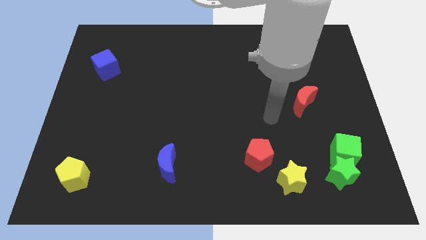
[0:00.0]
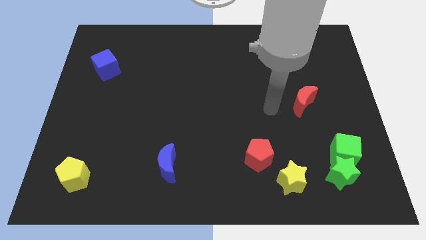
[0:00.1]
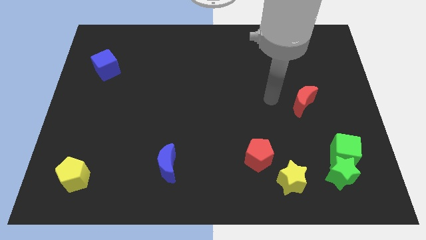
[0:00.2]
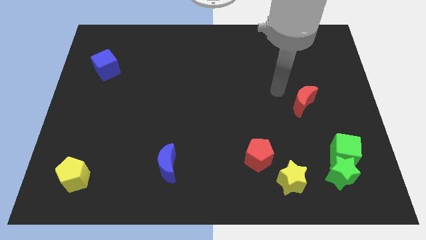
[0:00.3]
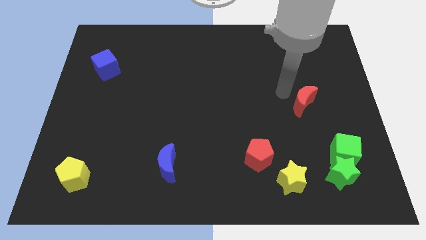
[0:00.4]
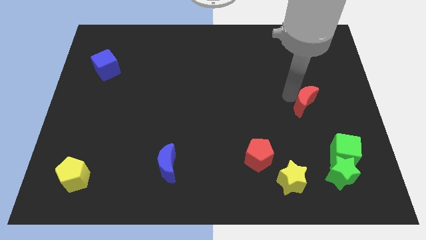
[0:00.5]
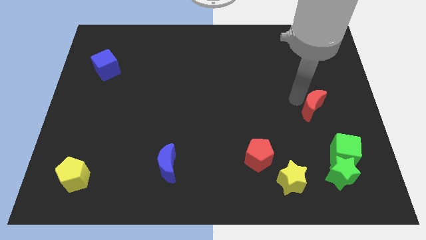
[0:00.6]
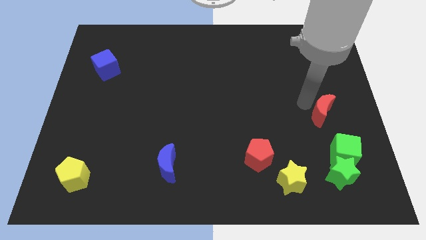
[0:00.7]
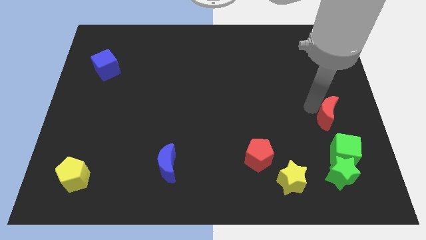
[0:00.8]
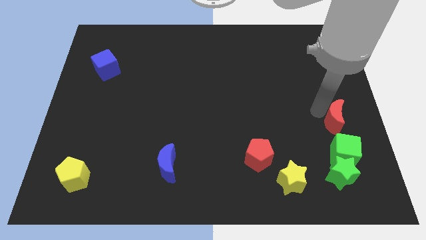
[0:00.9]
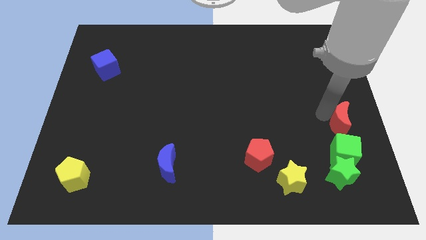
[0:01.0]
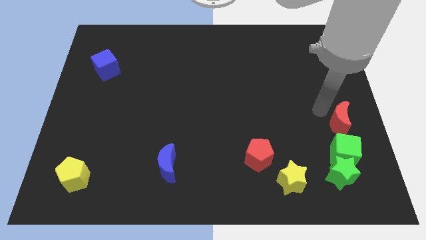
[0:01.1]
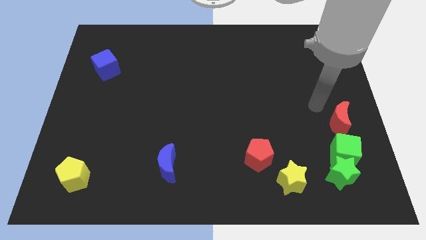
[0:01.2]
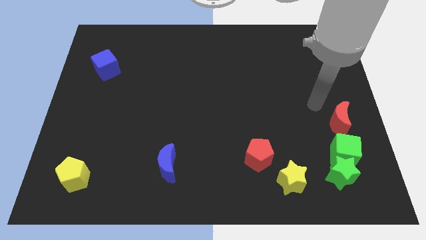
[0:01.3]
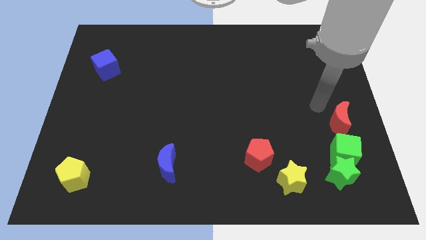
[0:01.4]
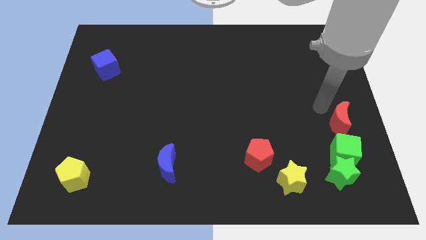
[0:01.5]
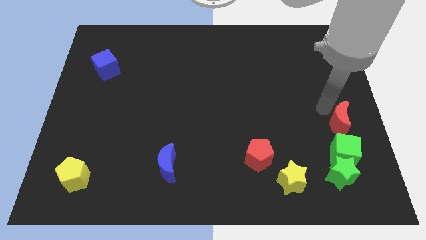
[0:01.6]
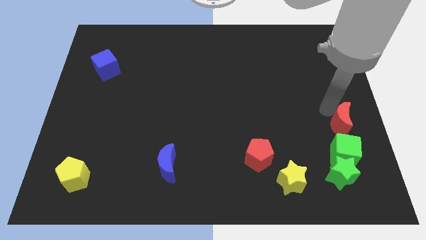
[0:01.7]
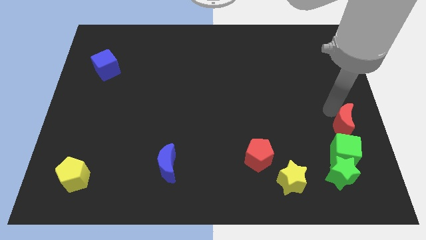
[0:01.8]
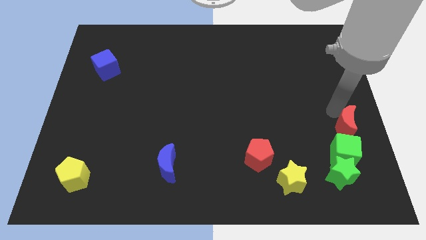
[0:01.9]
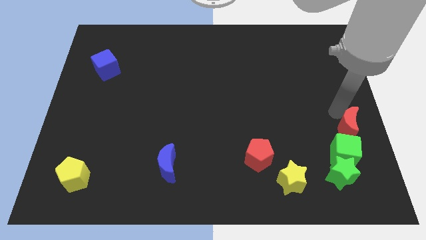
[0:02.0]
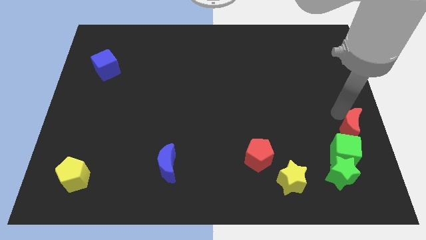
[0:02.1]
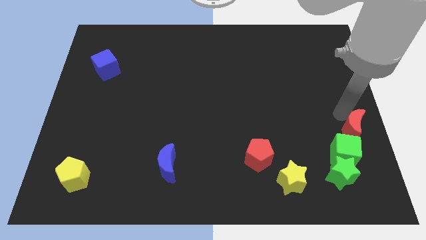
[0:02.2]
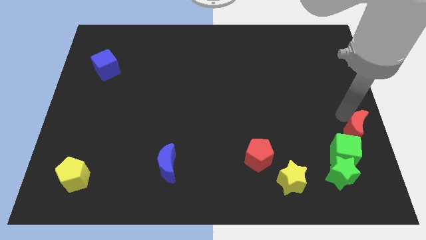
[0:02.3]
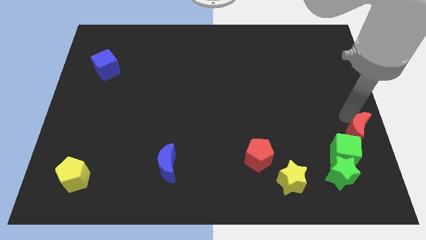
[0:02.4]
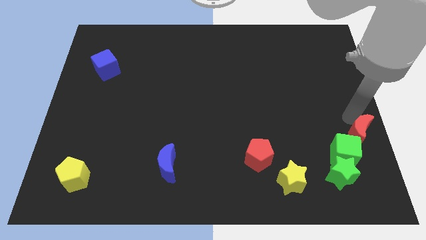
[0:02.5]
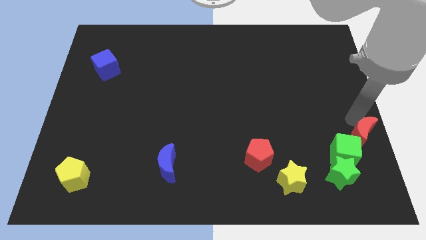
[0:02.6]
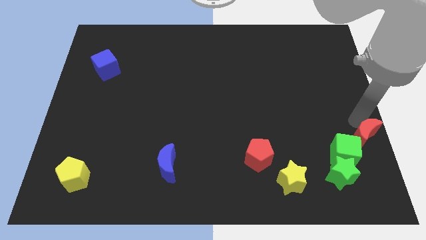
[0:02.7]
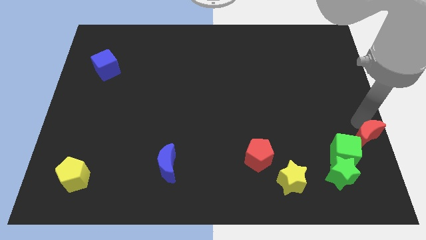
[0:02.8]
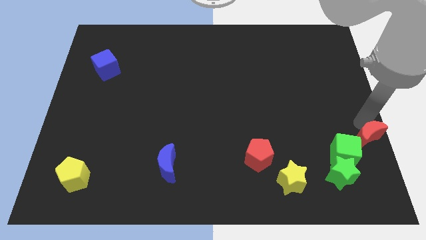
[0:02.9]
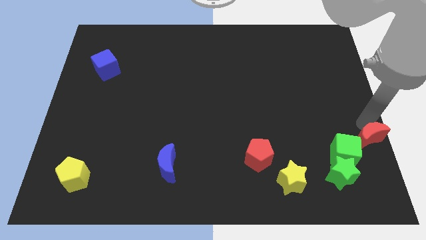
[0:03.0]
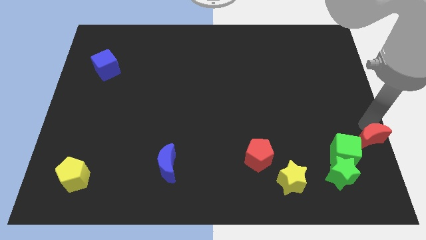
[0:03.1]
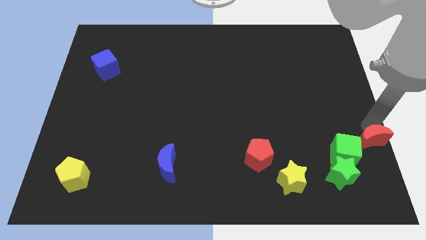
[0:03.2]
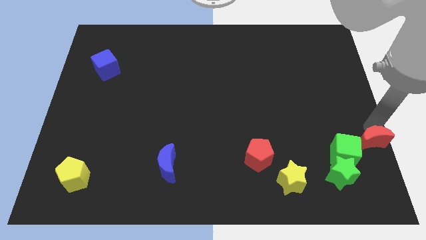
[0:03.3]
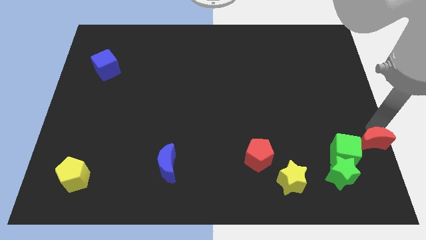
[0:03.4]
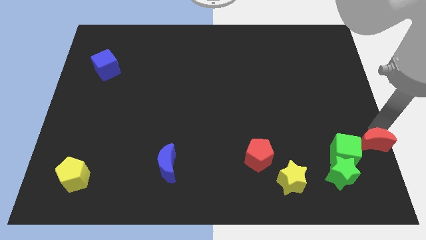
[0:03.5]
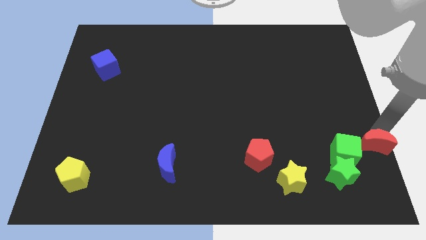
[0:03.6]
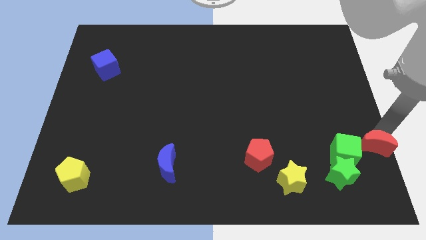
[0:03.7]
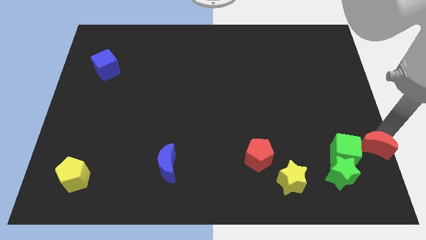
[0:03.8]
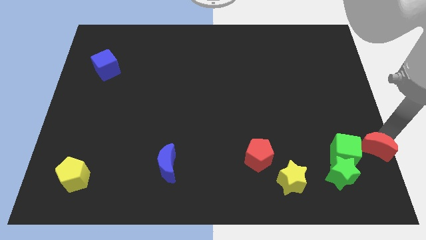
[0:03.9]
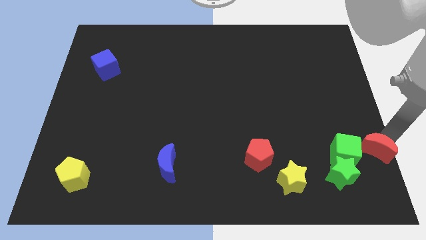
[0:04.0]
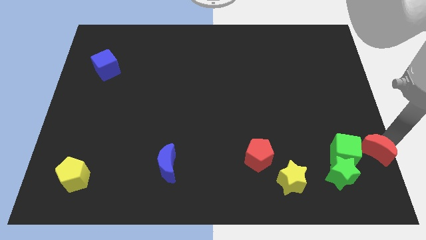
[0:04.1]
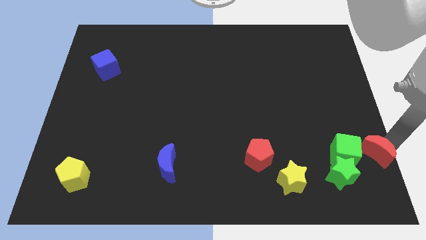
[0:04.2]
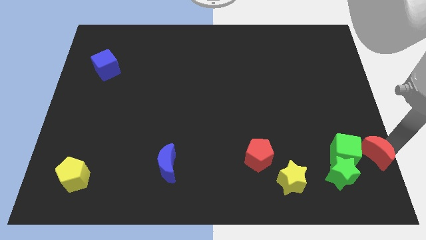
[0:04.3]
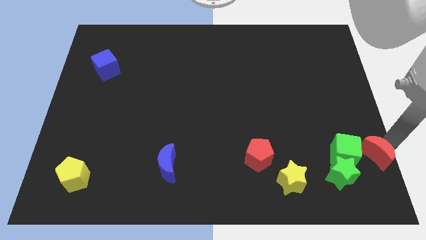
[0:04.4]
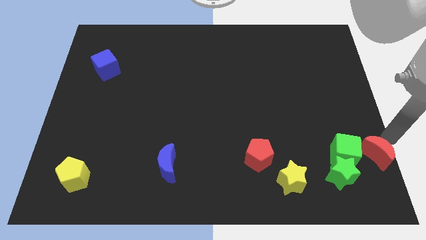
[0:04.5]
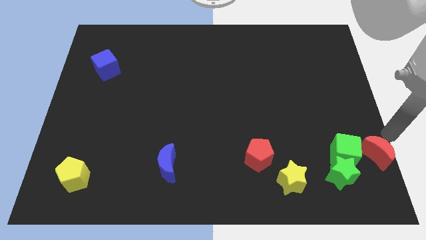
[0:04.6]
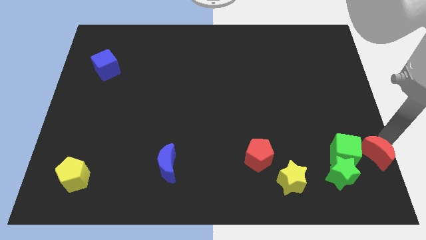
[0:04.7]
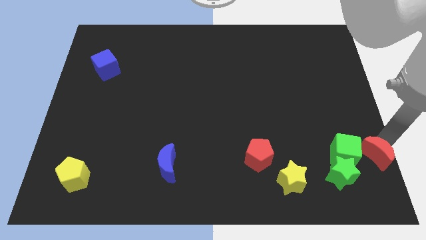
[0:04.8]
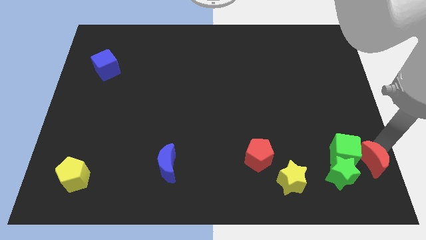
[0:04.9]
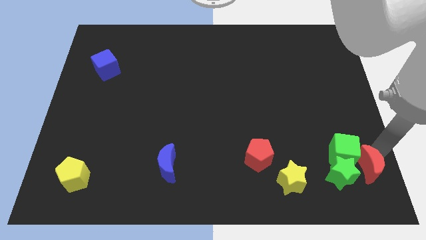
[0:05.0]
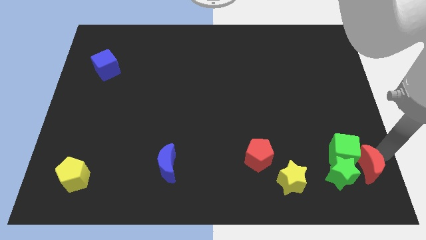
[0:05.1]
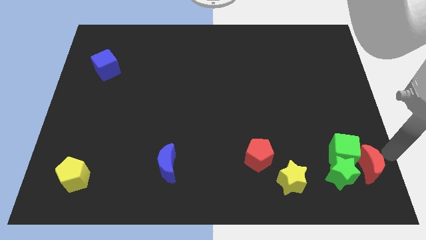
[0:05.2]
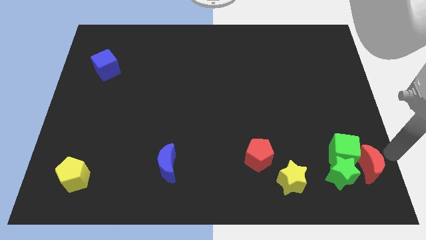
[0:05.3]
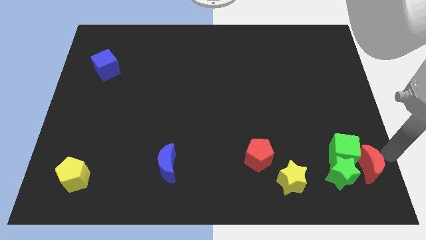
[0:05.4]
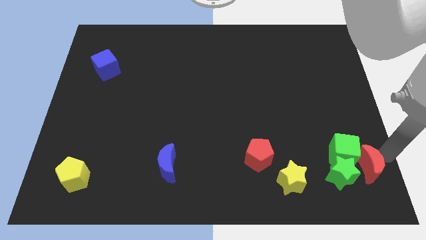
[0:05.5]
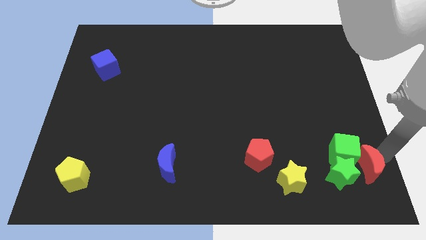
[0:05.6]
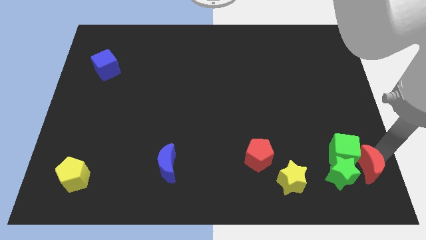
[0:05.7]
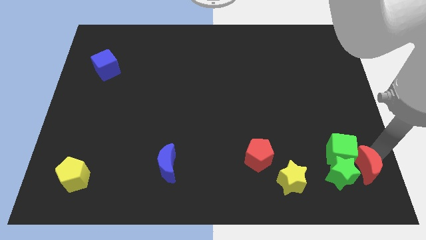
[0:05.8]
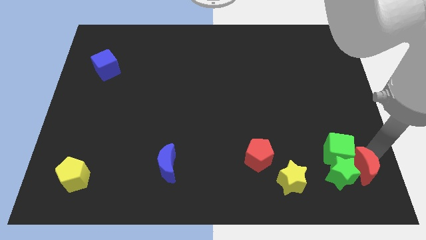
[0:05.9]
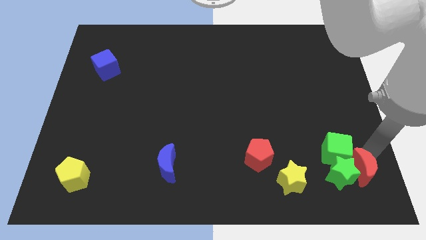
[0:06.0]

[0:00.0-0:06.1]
put the red moon to the right side of the yellow star

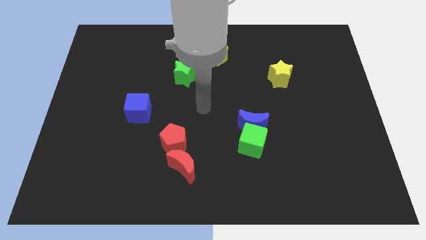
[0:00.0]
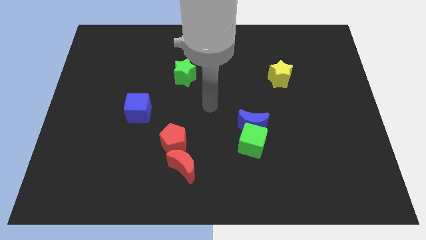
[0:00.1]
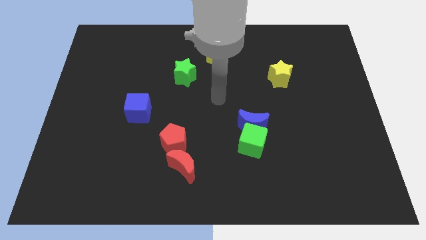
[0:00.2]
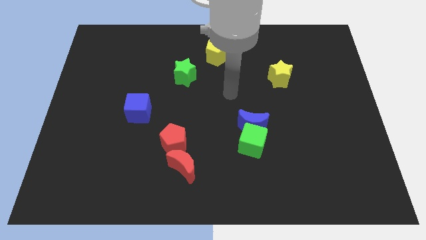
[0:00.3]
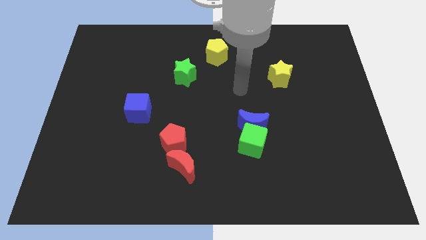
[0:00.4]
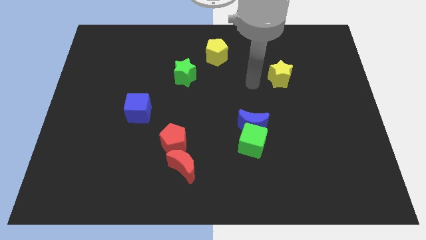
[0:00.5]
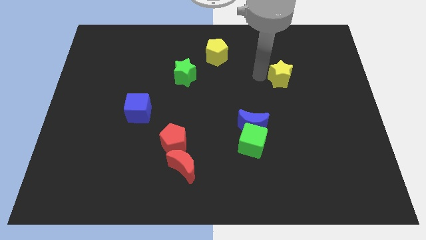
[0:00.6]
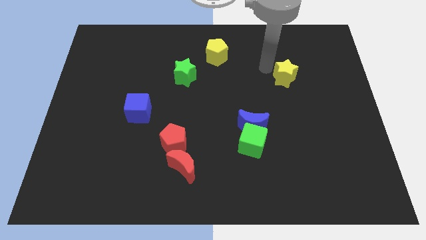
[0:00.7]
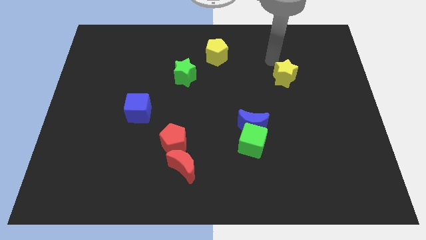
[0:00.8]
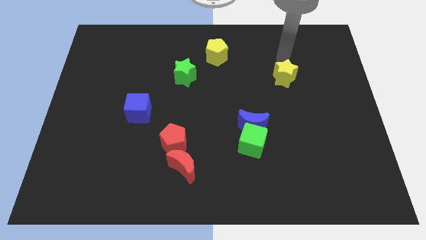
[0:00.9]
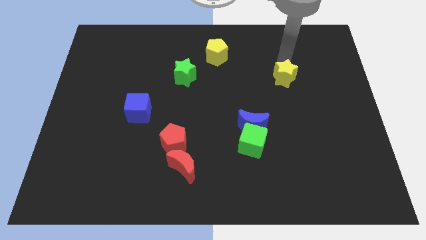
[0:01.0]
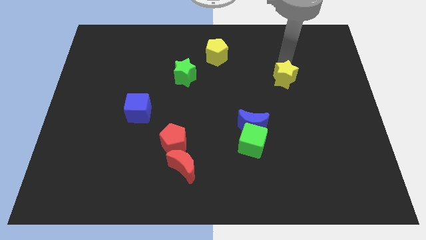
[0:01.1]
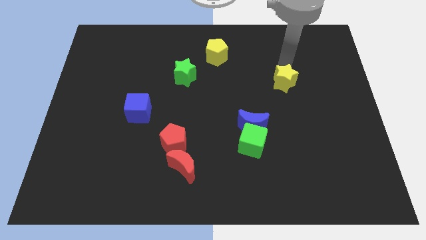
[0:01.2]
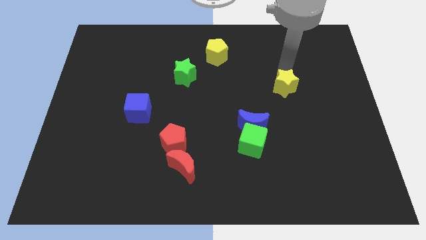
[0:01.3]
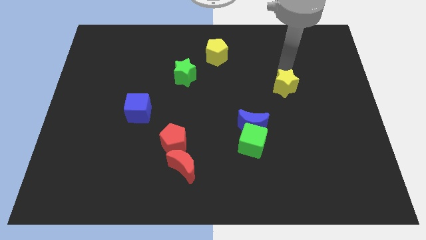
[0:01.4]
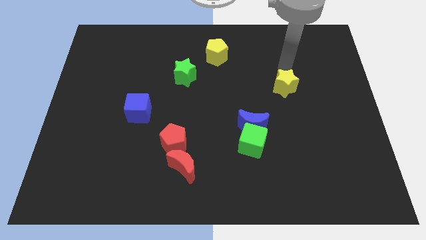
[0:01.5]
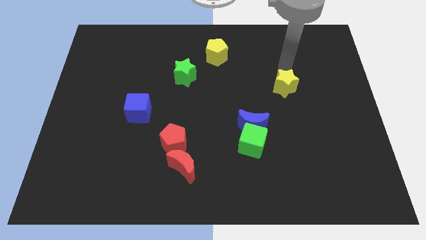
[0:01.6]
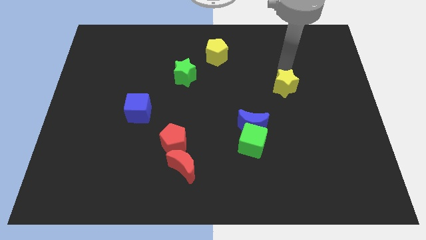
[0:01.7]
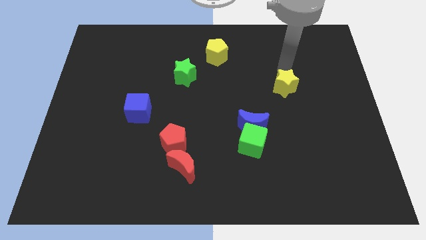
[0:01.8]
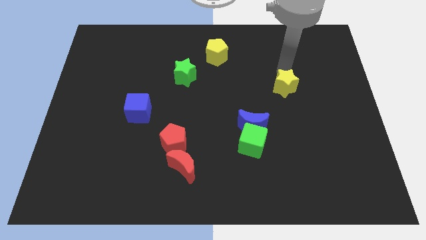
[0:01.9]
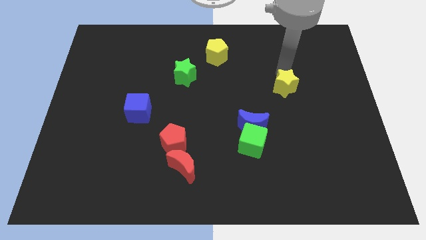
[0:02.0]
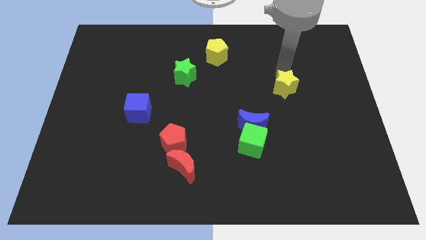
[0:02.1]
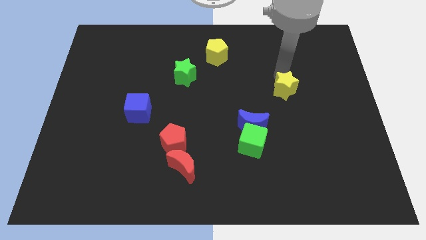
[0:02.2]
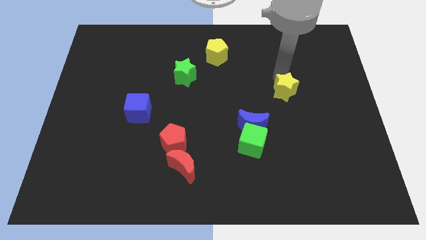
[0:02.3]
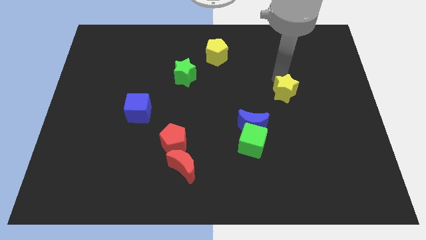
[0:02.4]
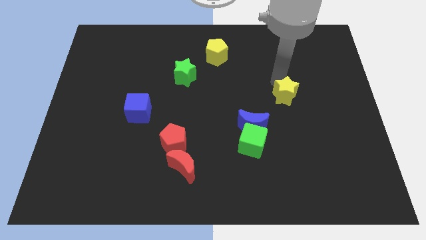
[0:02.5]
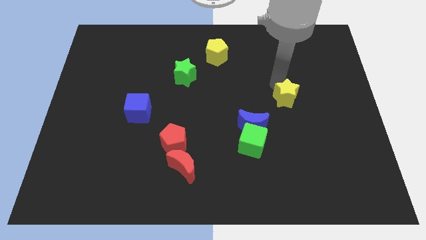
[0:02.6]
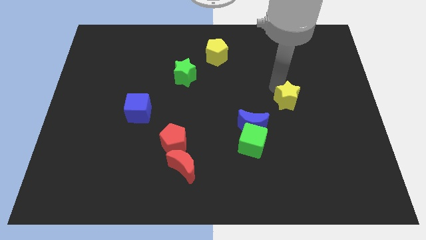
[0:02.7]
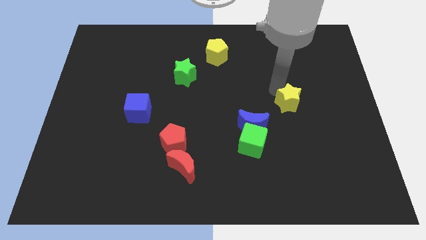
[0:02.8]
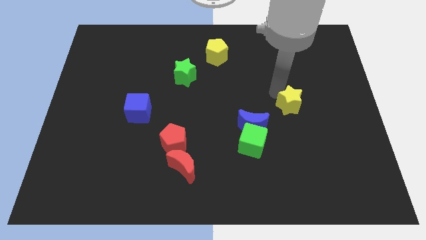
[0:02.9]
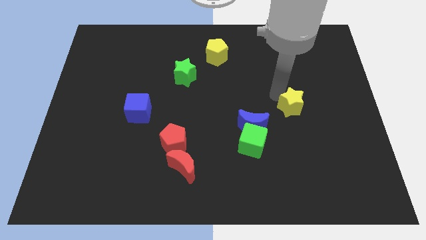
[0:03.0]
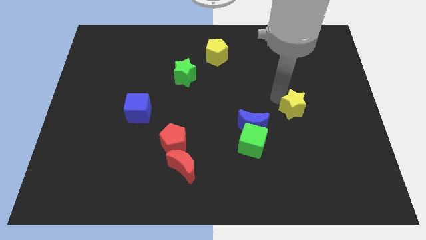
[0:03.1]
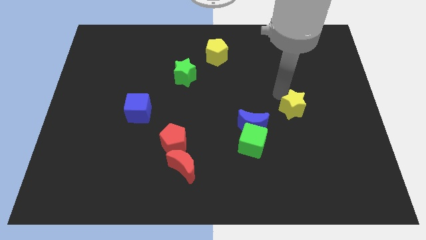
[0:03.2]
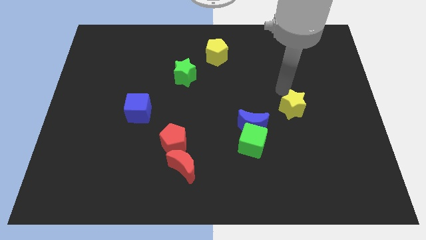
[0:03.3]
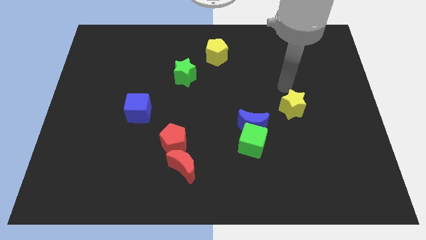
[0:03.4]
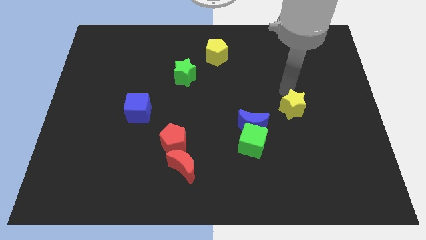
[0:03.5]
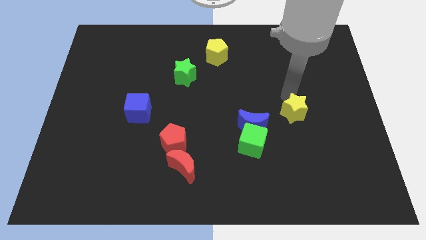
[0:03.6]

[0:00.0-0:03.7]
move the yellow star right of the blue moon
